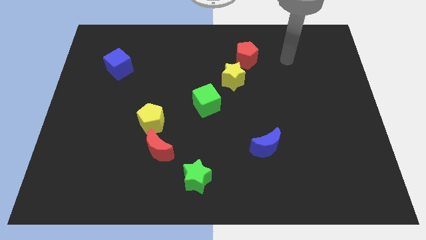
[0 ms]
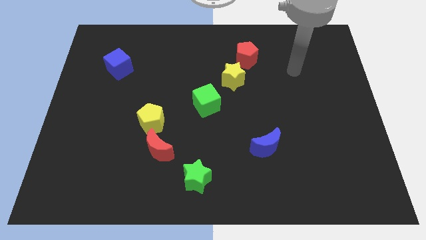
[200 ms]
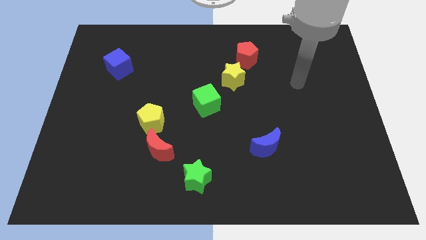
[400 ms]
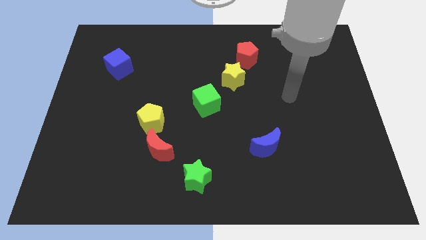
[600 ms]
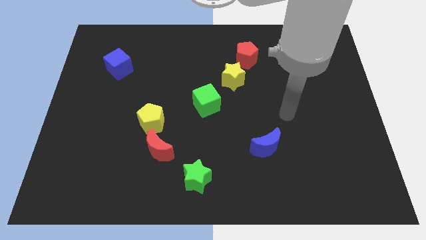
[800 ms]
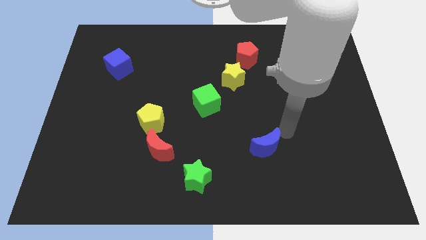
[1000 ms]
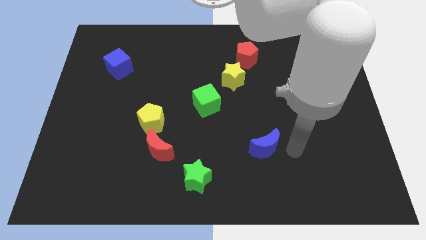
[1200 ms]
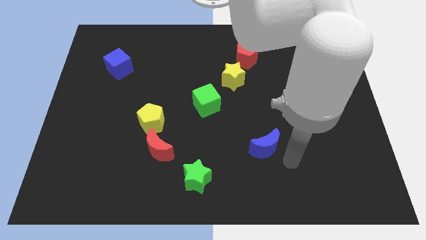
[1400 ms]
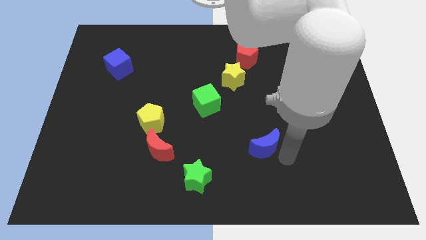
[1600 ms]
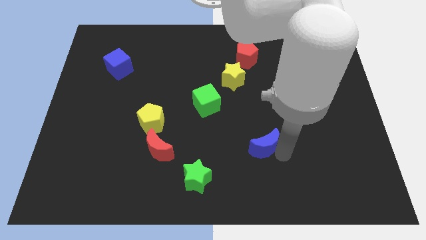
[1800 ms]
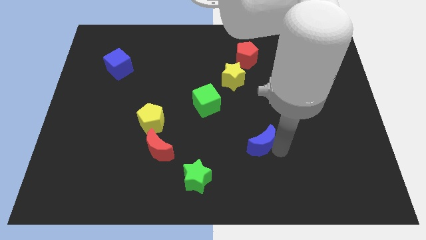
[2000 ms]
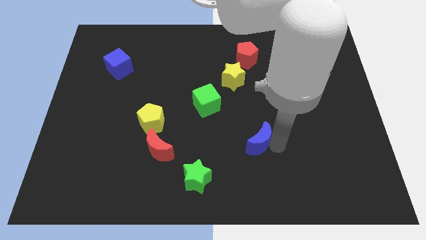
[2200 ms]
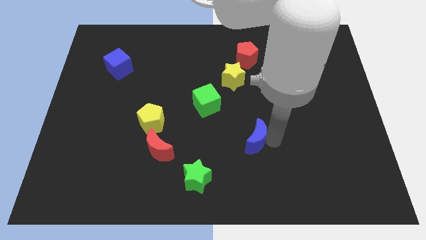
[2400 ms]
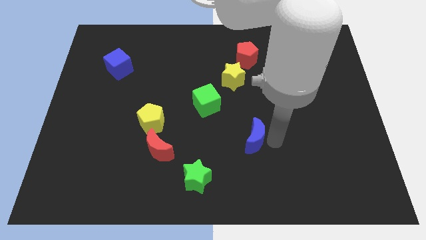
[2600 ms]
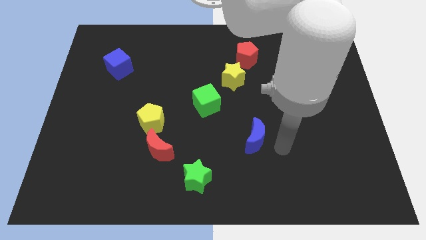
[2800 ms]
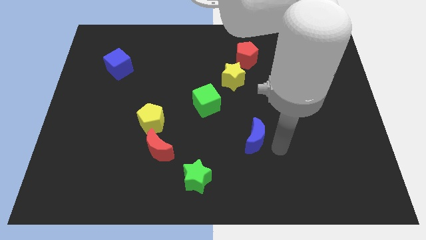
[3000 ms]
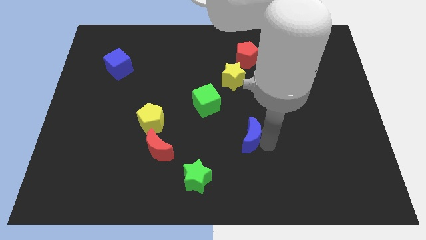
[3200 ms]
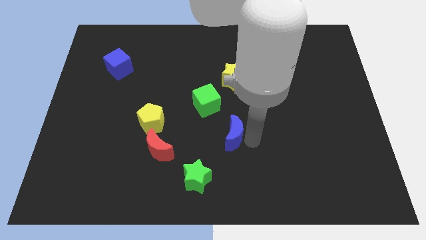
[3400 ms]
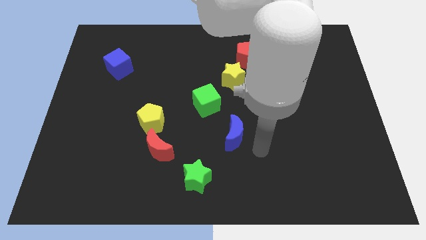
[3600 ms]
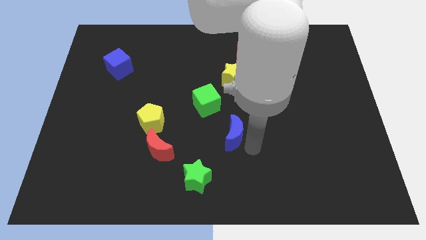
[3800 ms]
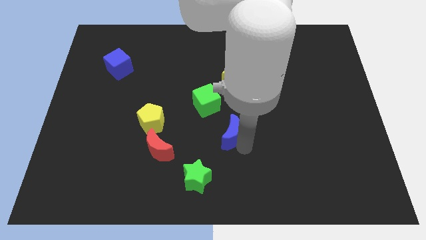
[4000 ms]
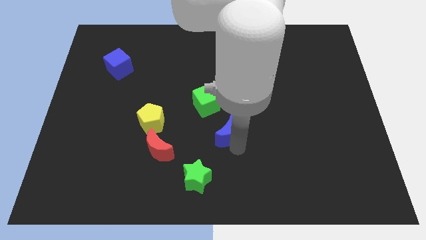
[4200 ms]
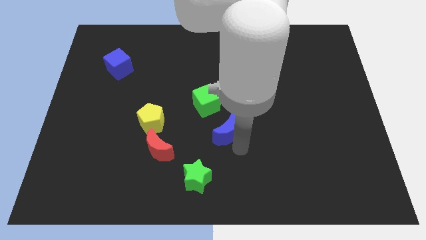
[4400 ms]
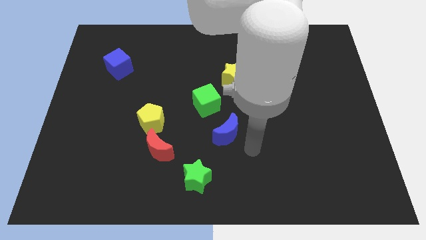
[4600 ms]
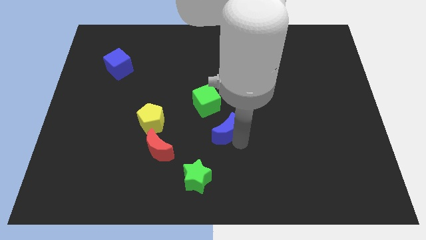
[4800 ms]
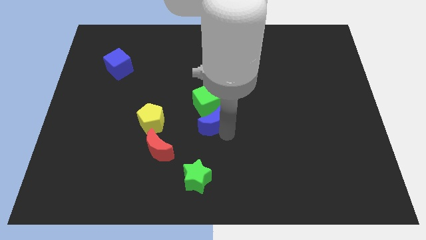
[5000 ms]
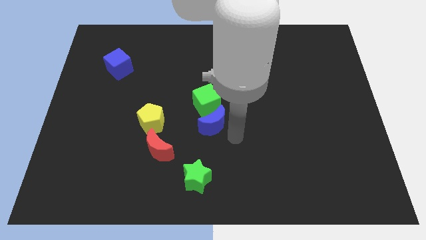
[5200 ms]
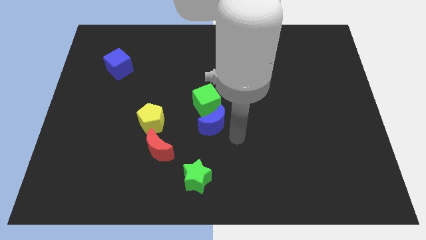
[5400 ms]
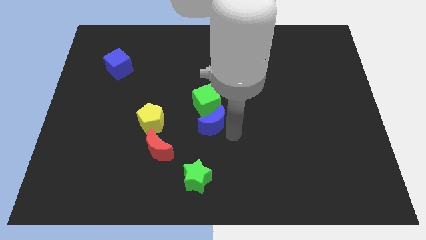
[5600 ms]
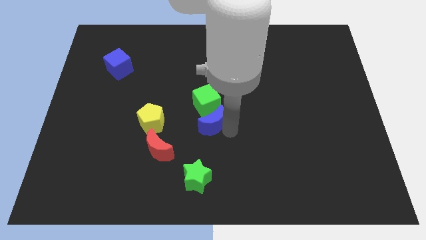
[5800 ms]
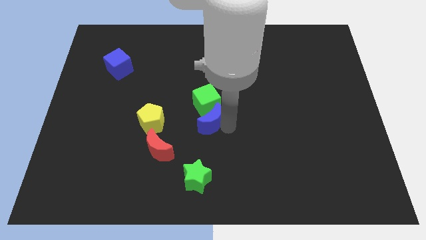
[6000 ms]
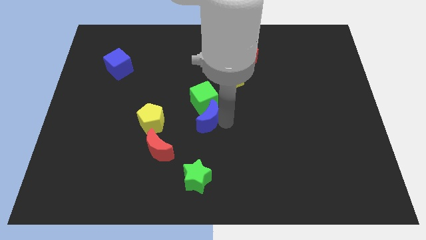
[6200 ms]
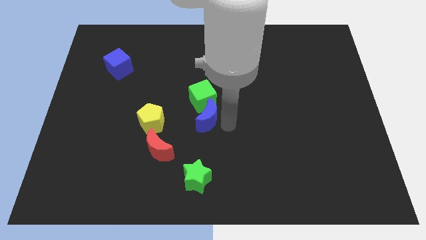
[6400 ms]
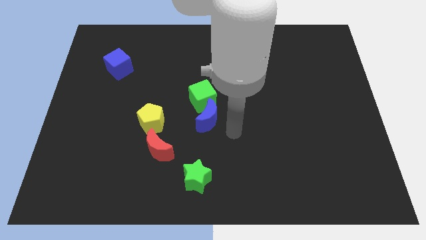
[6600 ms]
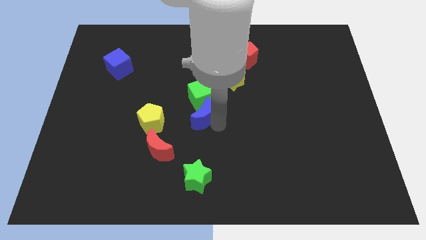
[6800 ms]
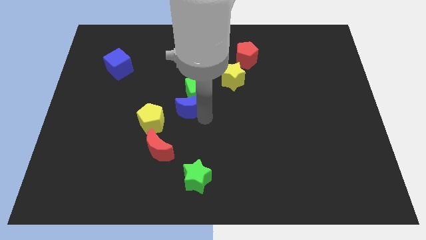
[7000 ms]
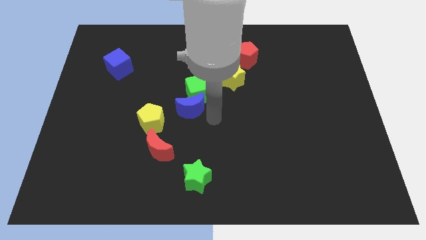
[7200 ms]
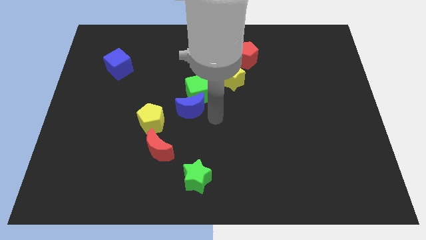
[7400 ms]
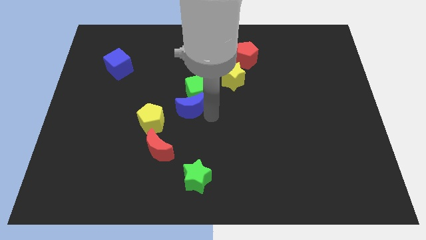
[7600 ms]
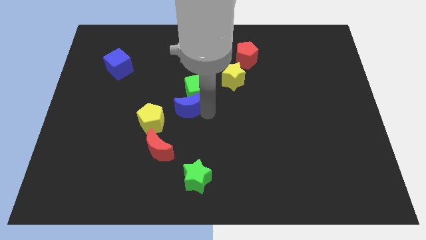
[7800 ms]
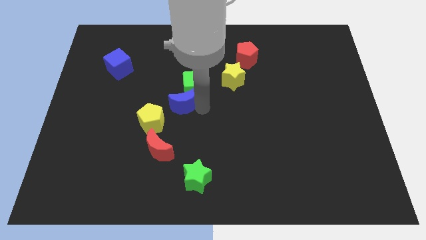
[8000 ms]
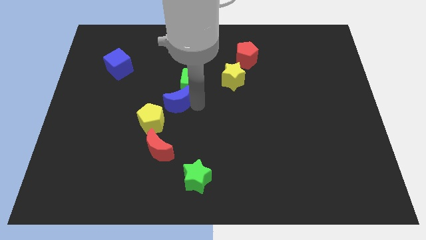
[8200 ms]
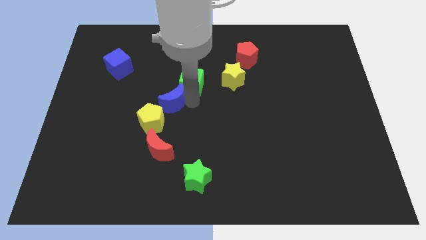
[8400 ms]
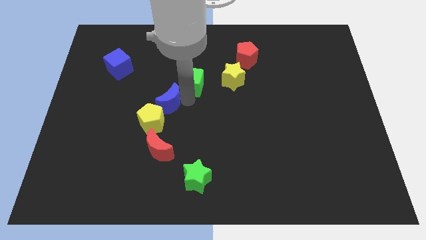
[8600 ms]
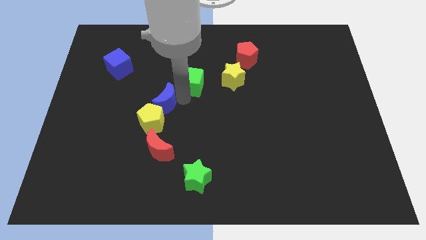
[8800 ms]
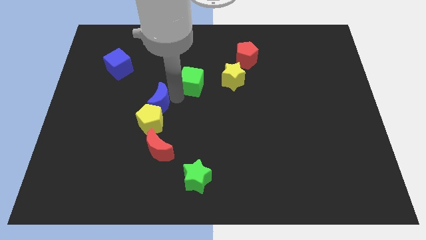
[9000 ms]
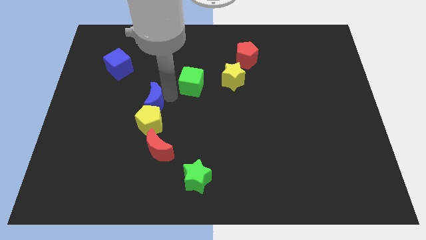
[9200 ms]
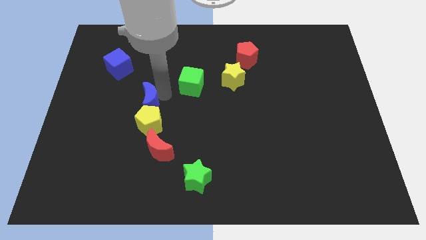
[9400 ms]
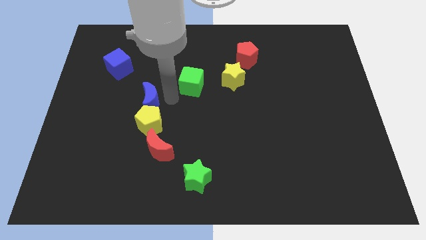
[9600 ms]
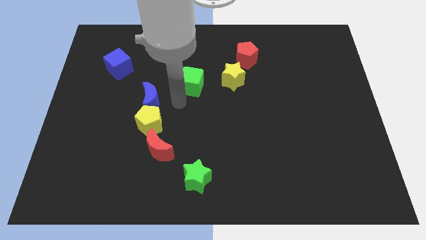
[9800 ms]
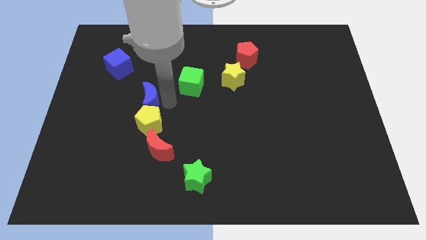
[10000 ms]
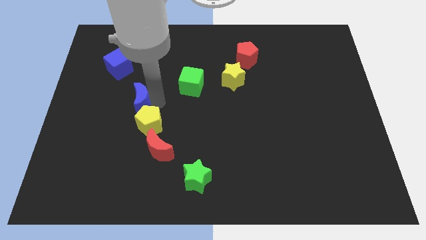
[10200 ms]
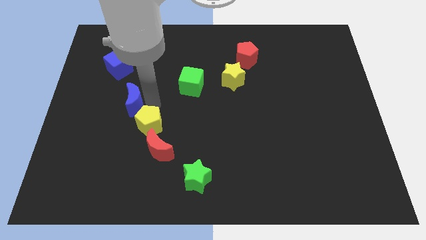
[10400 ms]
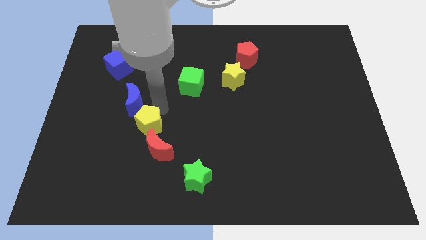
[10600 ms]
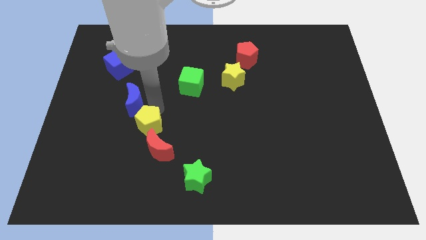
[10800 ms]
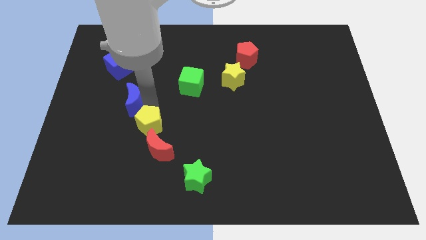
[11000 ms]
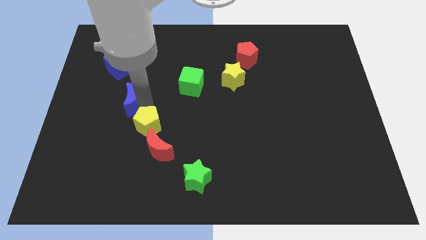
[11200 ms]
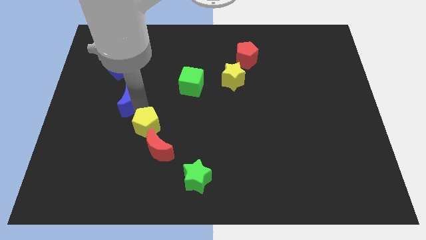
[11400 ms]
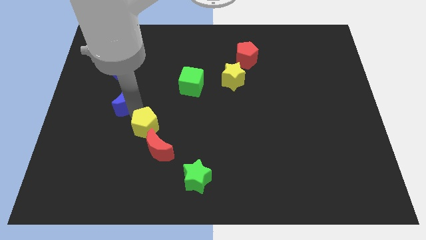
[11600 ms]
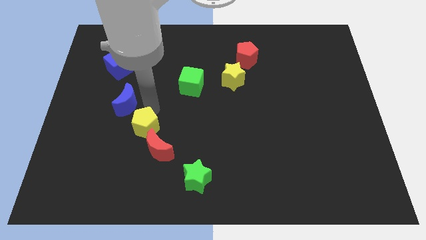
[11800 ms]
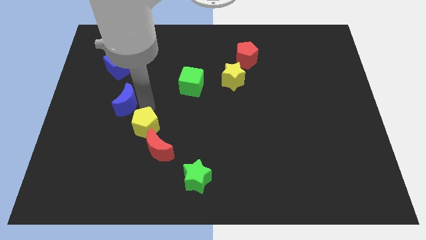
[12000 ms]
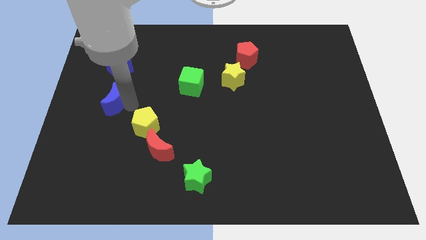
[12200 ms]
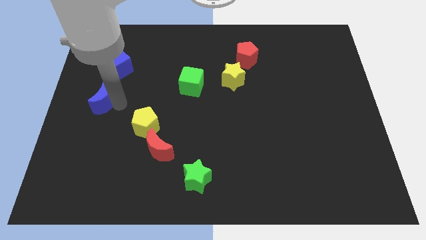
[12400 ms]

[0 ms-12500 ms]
push the blue moon to the center left

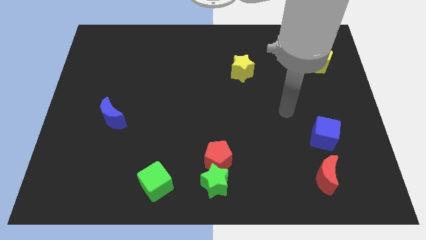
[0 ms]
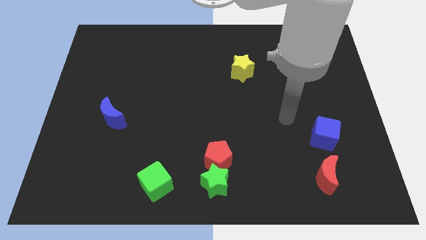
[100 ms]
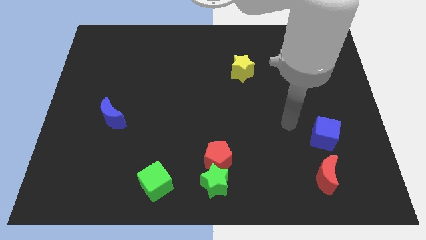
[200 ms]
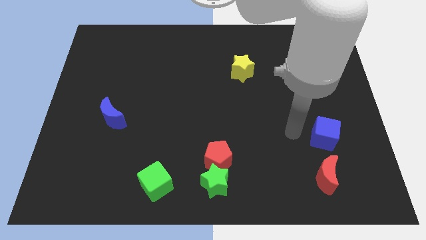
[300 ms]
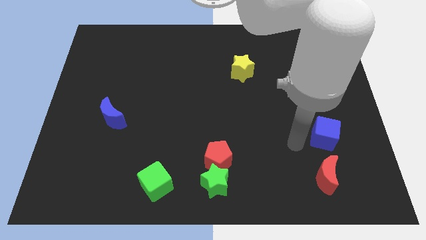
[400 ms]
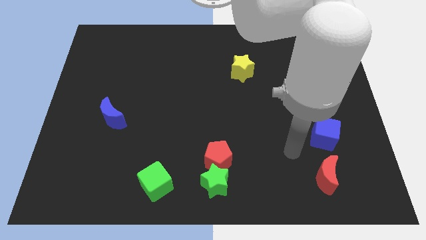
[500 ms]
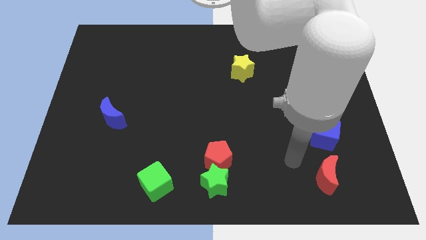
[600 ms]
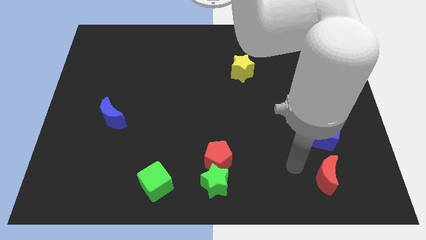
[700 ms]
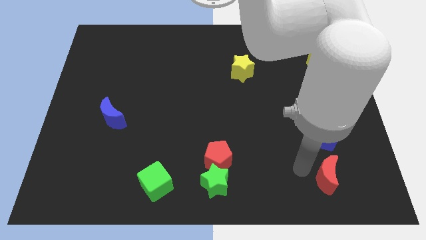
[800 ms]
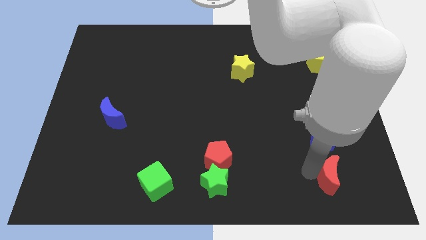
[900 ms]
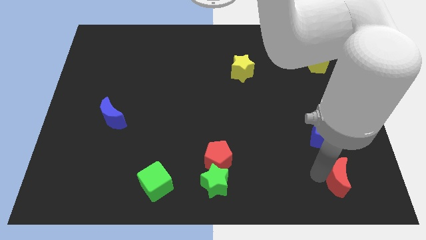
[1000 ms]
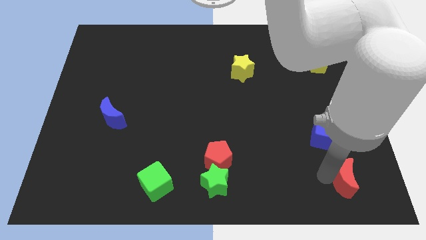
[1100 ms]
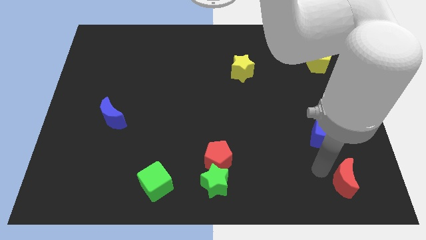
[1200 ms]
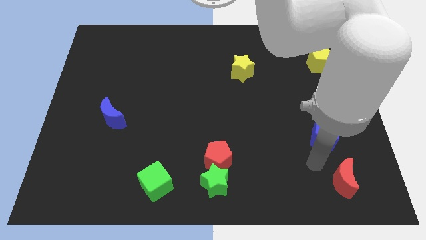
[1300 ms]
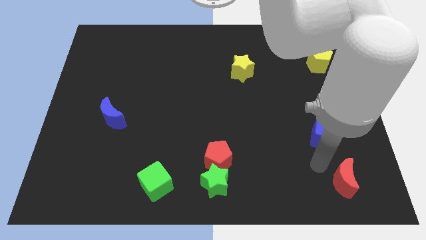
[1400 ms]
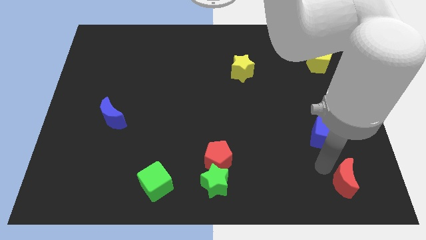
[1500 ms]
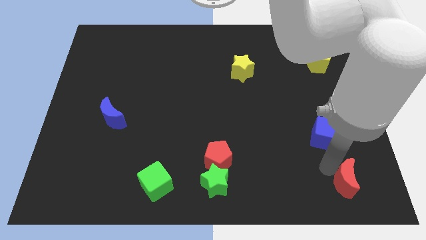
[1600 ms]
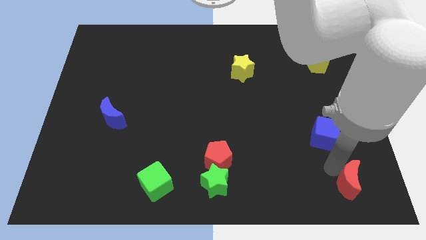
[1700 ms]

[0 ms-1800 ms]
push the red moon to the bottom right
